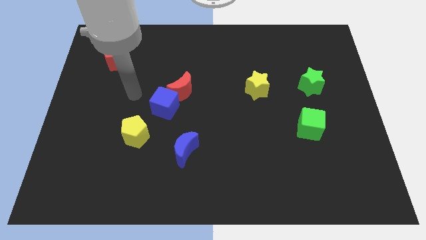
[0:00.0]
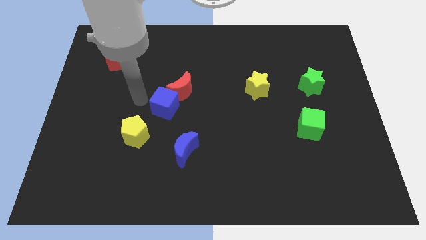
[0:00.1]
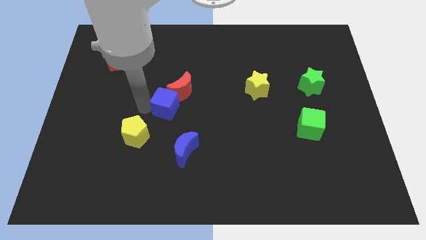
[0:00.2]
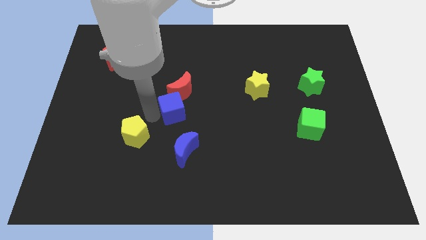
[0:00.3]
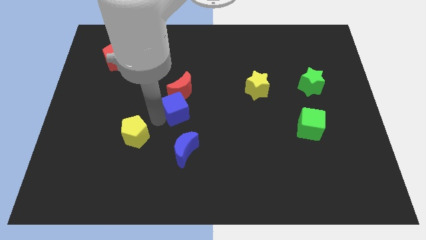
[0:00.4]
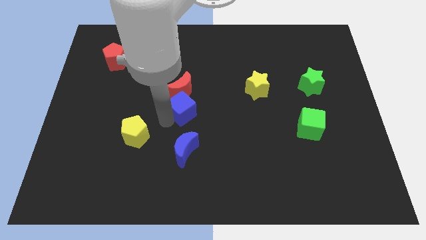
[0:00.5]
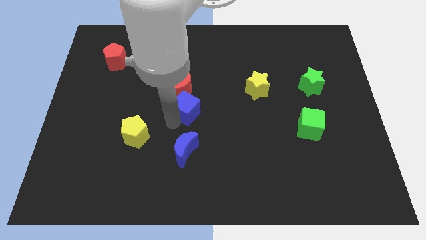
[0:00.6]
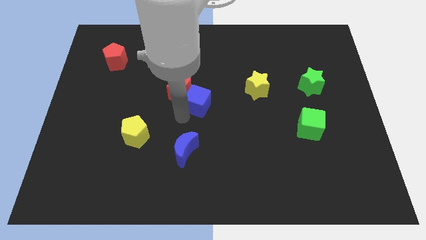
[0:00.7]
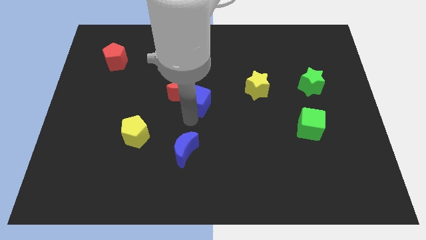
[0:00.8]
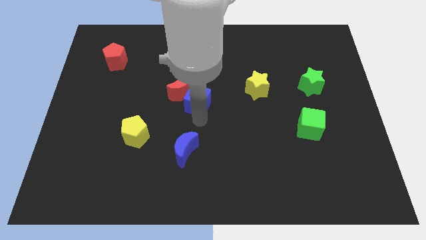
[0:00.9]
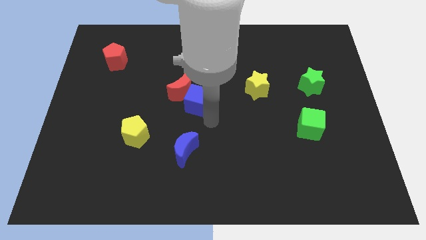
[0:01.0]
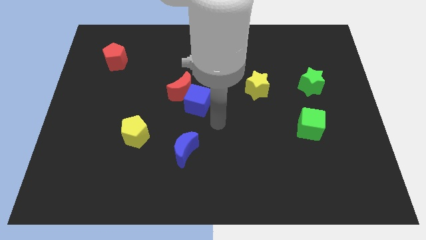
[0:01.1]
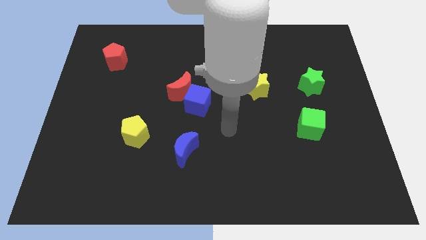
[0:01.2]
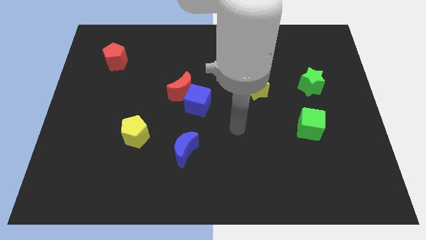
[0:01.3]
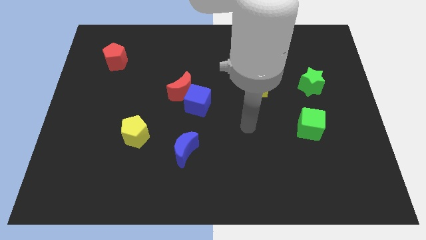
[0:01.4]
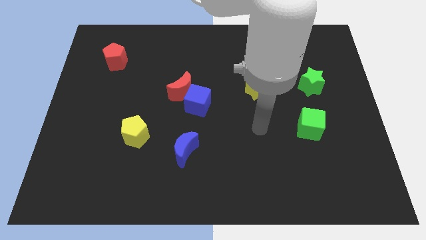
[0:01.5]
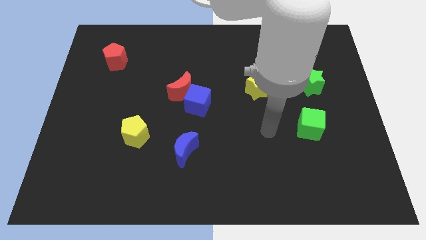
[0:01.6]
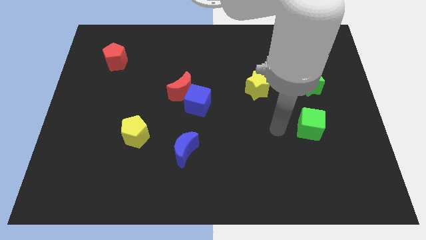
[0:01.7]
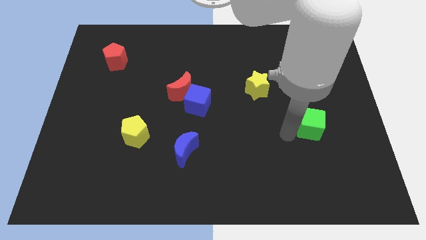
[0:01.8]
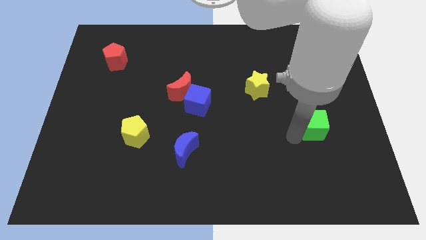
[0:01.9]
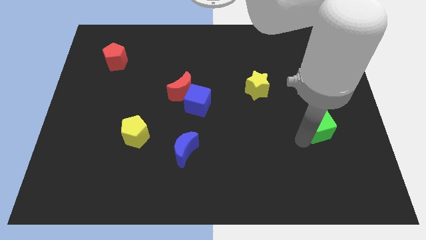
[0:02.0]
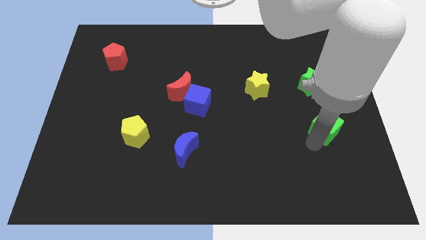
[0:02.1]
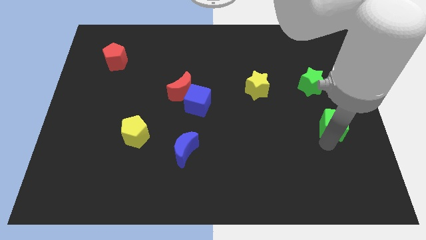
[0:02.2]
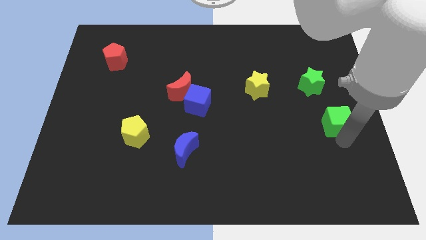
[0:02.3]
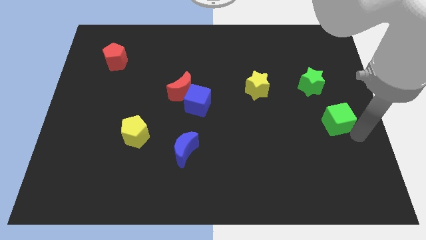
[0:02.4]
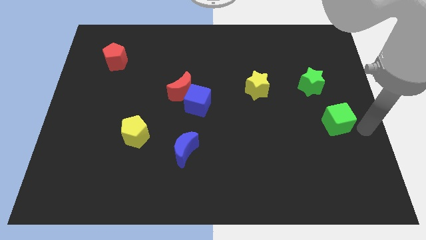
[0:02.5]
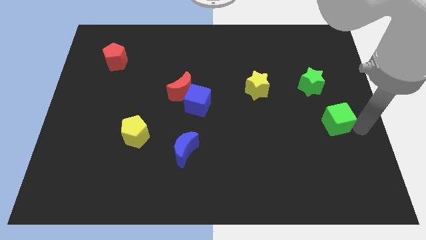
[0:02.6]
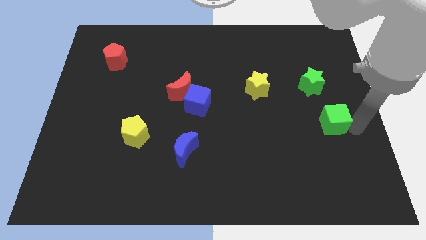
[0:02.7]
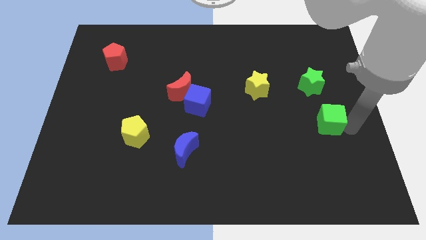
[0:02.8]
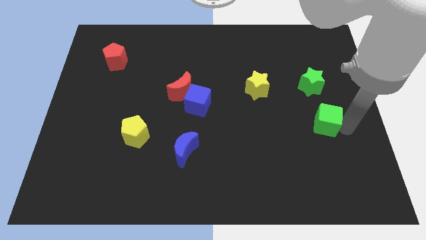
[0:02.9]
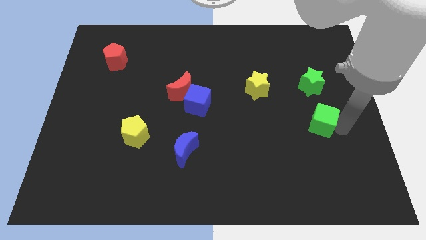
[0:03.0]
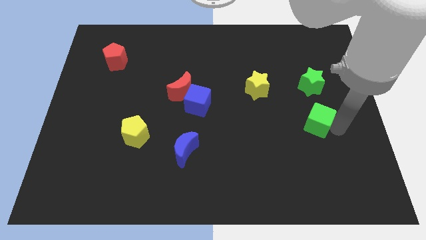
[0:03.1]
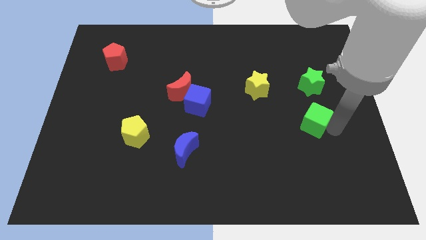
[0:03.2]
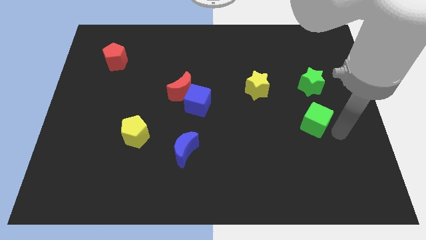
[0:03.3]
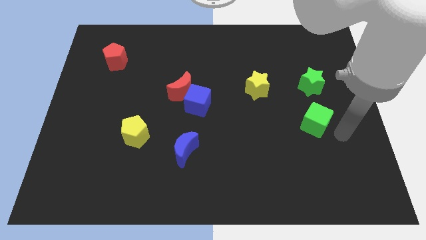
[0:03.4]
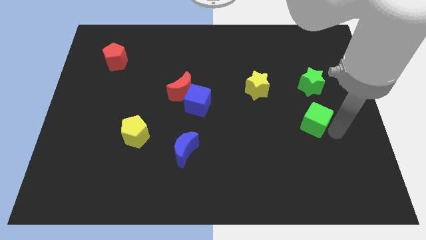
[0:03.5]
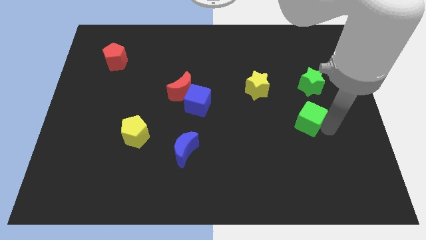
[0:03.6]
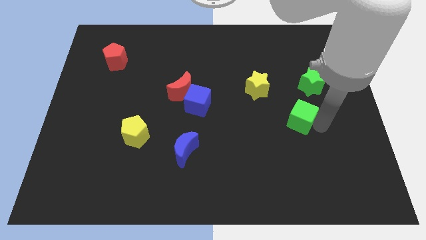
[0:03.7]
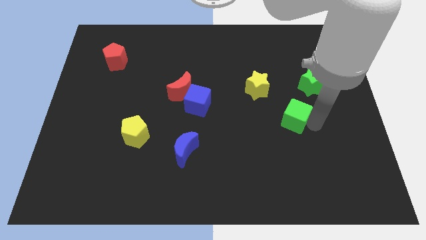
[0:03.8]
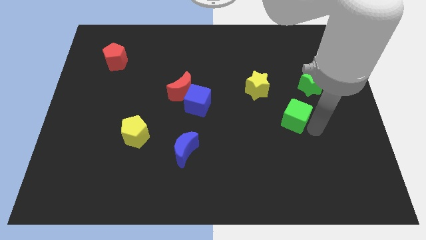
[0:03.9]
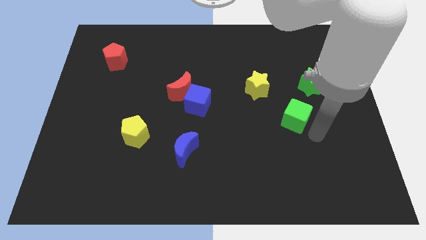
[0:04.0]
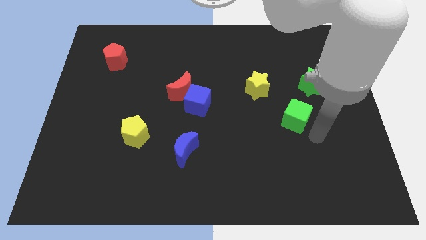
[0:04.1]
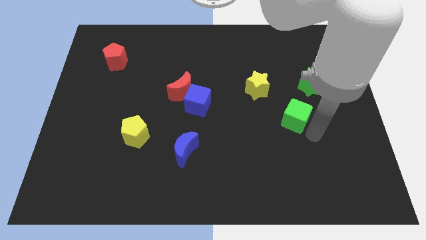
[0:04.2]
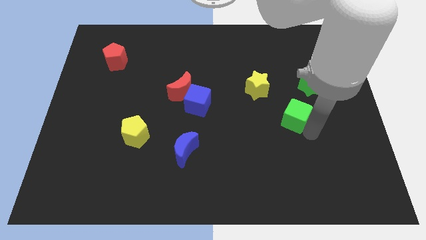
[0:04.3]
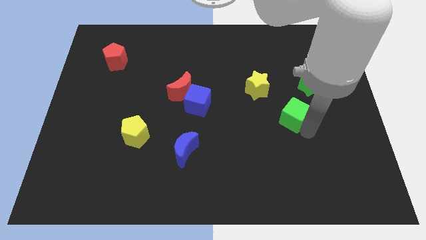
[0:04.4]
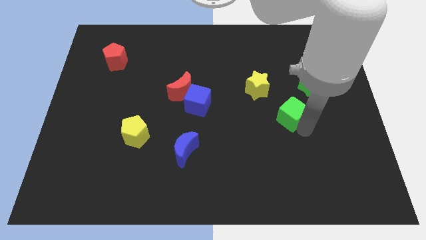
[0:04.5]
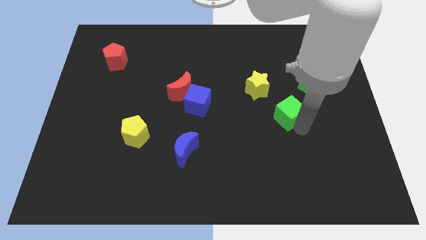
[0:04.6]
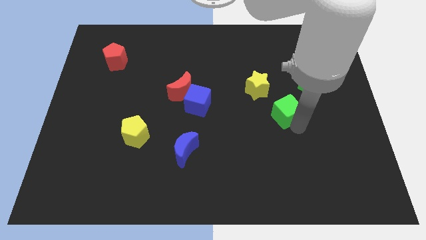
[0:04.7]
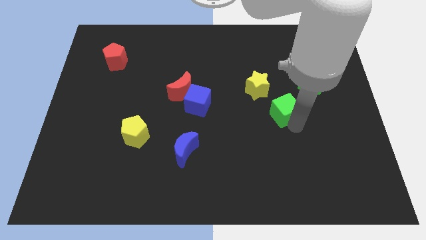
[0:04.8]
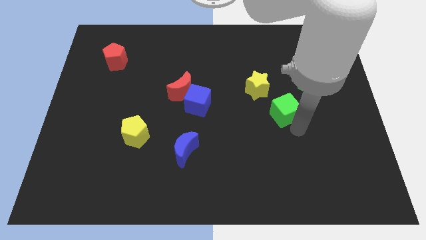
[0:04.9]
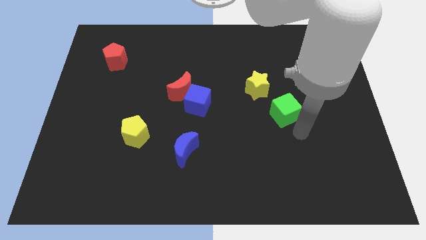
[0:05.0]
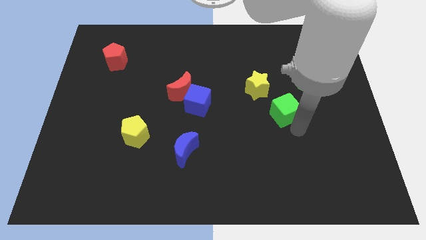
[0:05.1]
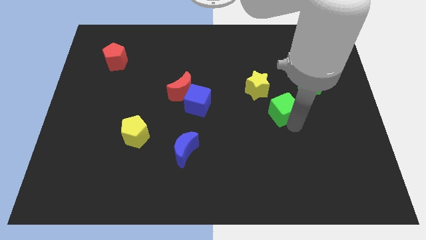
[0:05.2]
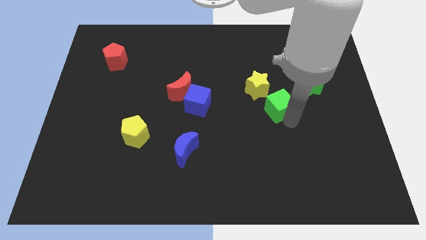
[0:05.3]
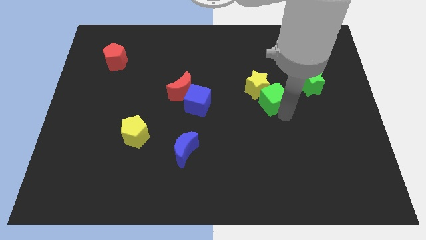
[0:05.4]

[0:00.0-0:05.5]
push the green cube to the yellow star

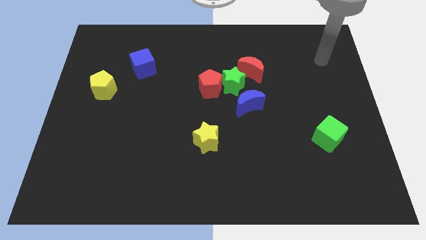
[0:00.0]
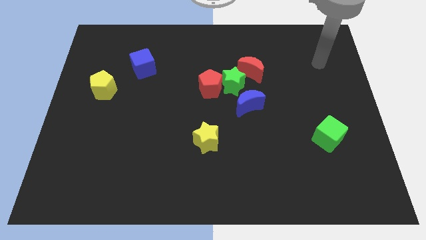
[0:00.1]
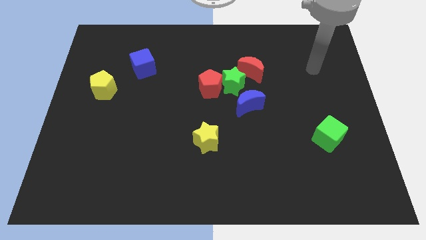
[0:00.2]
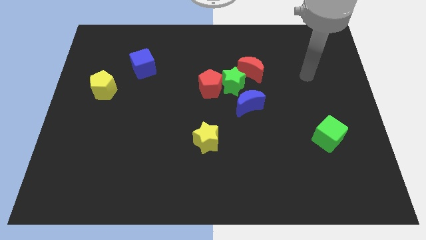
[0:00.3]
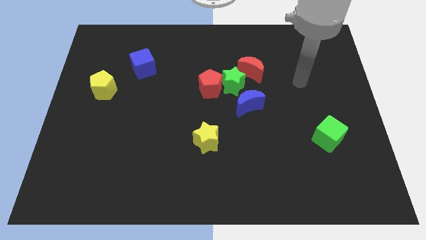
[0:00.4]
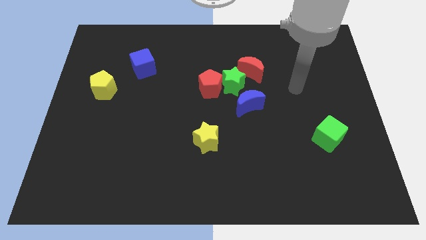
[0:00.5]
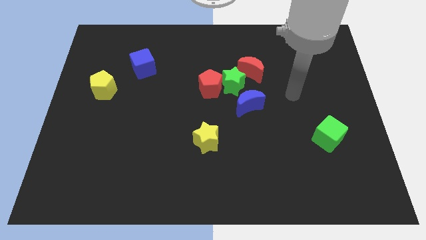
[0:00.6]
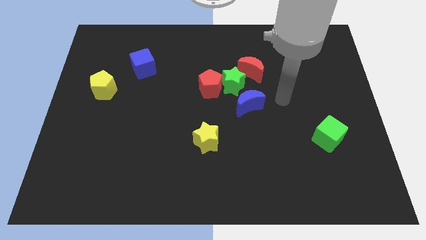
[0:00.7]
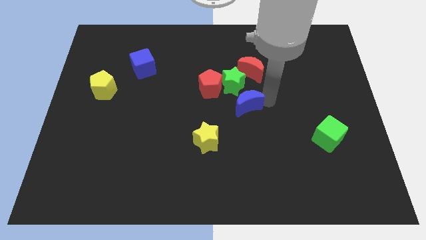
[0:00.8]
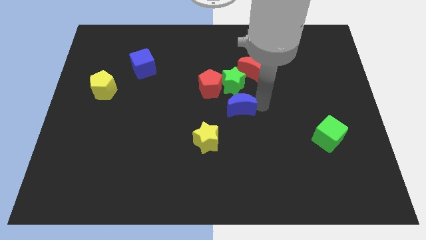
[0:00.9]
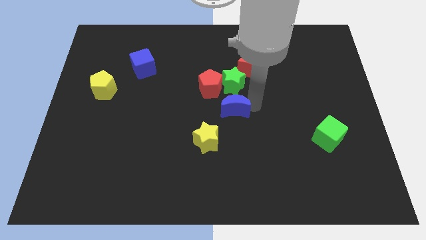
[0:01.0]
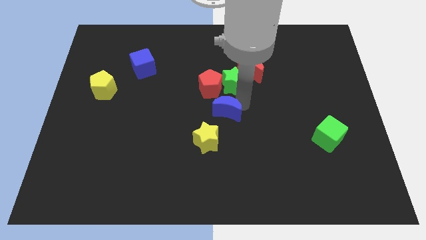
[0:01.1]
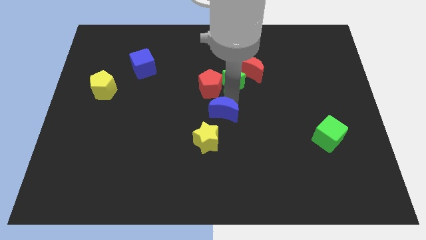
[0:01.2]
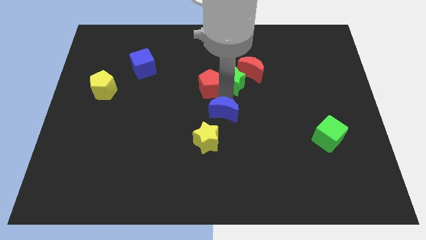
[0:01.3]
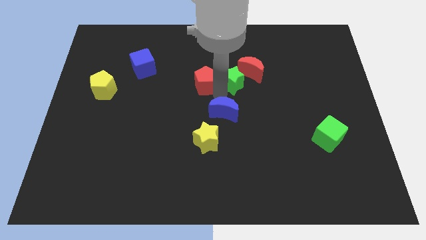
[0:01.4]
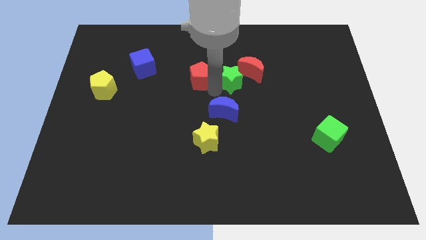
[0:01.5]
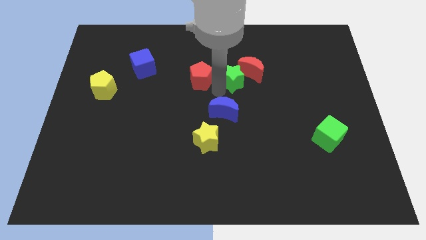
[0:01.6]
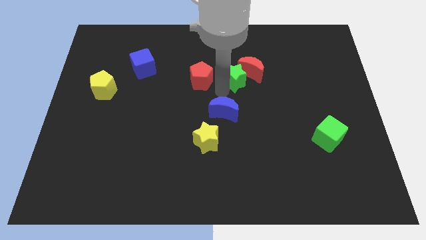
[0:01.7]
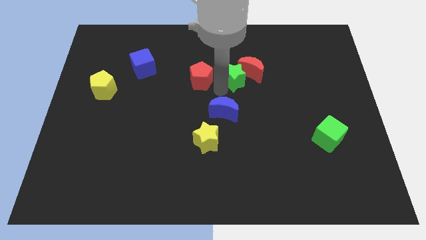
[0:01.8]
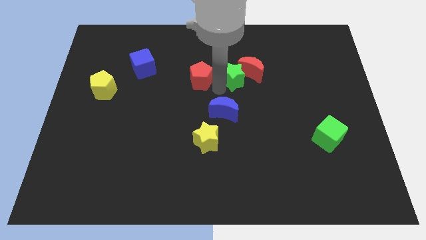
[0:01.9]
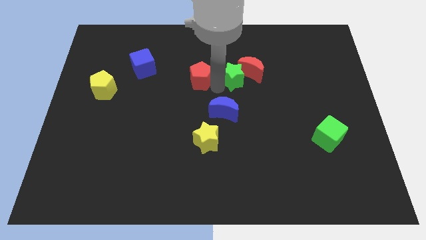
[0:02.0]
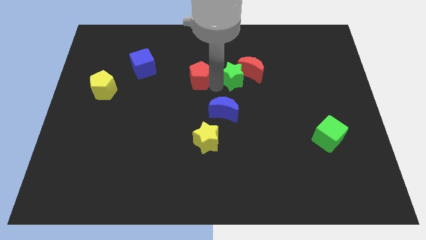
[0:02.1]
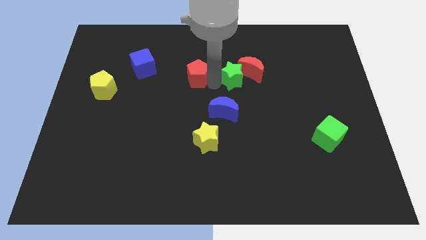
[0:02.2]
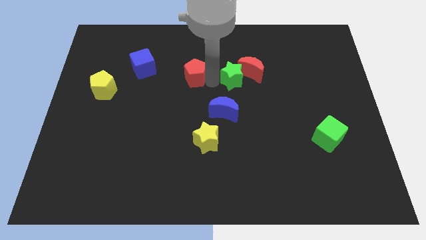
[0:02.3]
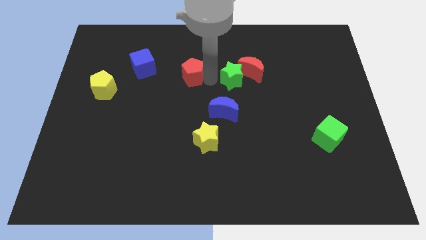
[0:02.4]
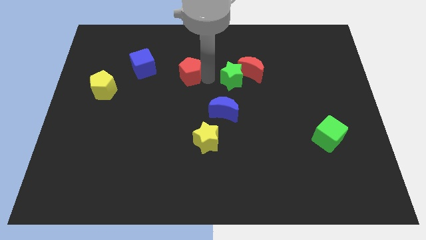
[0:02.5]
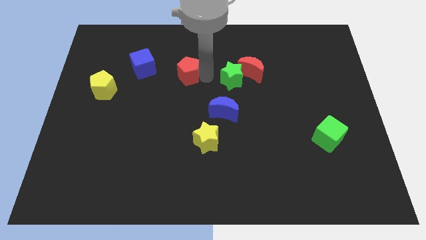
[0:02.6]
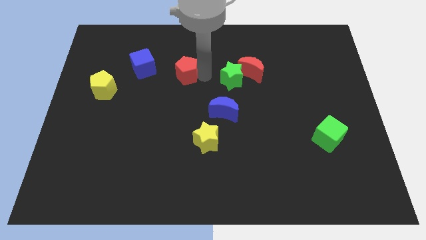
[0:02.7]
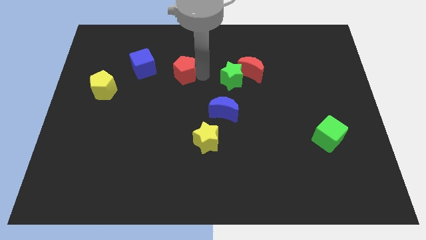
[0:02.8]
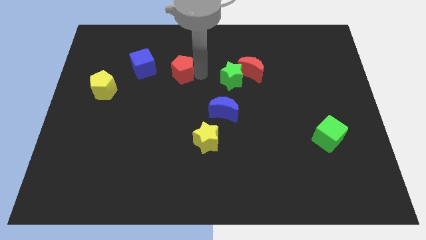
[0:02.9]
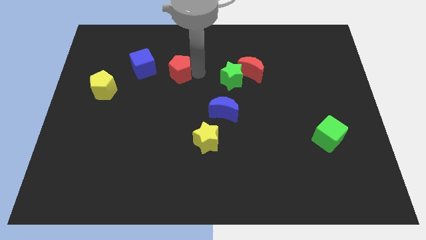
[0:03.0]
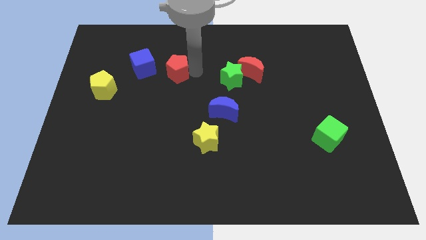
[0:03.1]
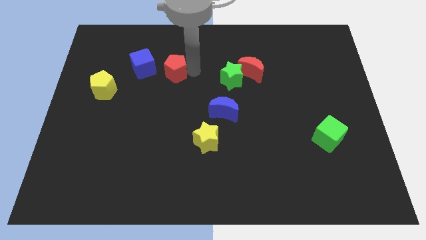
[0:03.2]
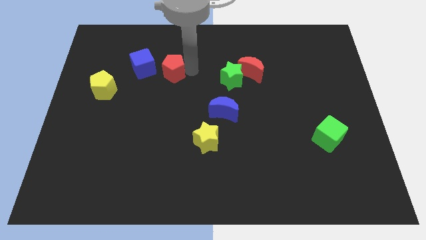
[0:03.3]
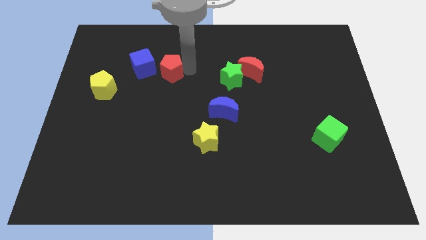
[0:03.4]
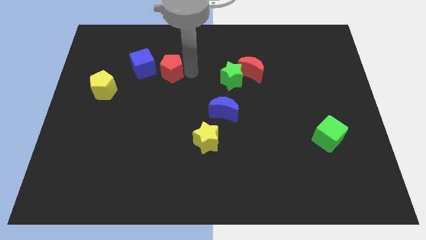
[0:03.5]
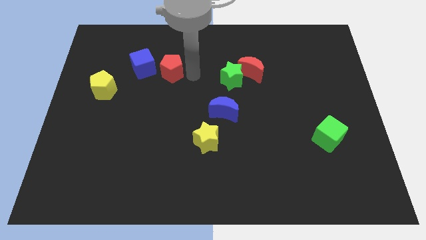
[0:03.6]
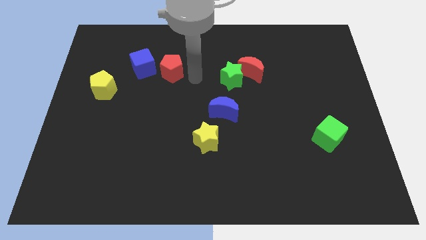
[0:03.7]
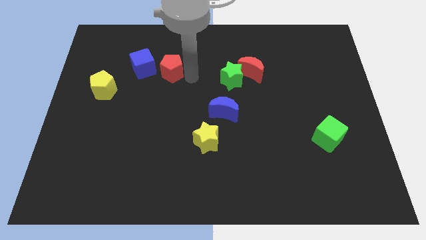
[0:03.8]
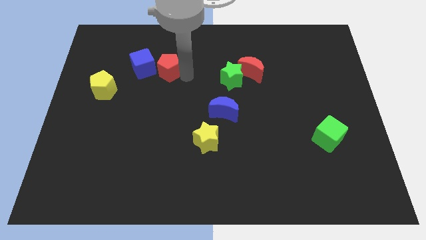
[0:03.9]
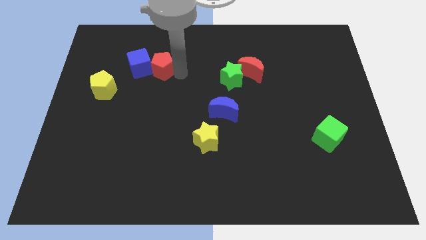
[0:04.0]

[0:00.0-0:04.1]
slide the red pentagon next to the blue cube
